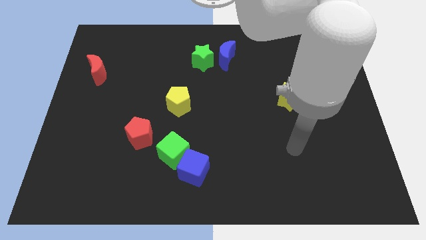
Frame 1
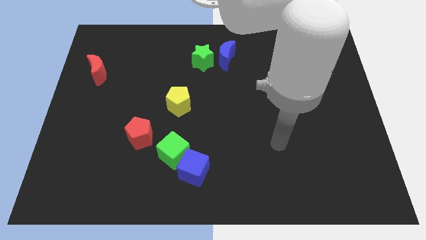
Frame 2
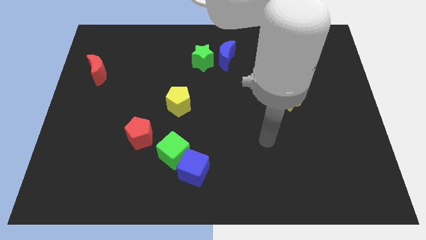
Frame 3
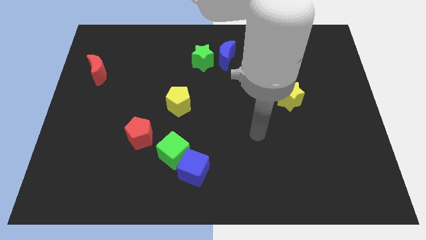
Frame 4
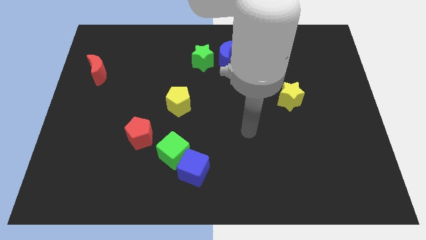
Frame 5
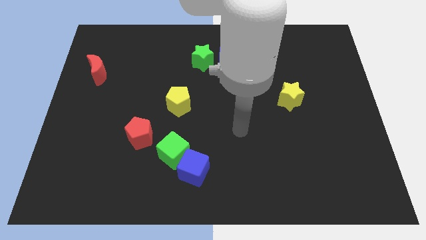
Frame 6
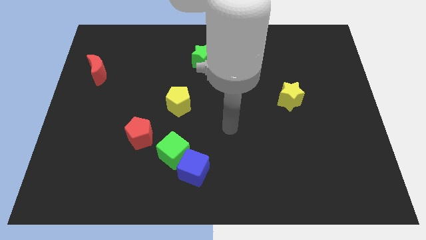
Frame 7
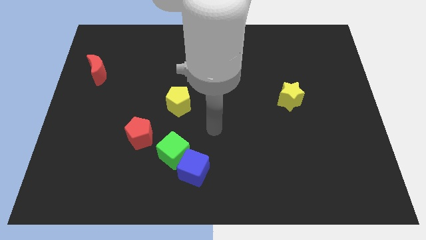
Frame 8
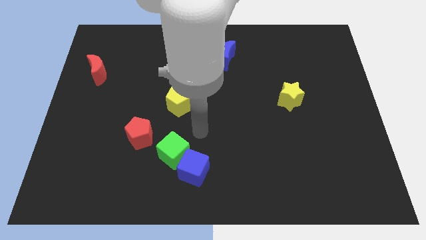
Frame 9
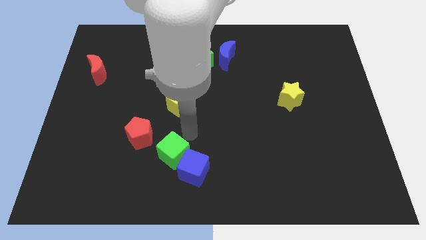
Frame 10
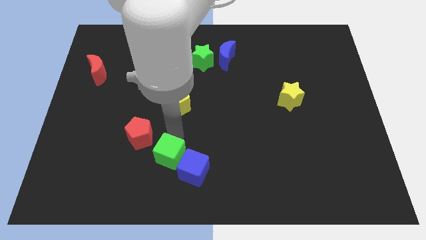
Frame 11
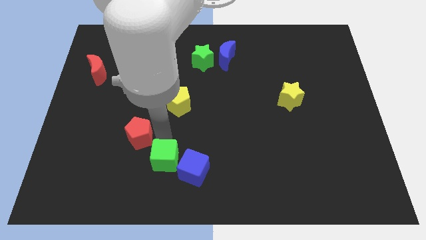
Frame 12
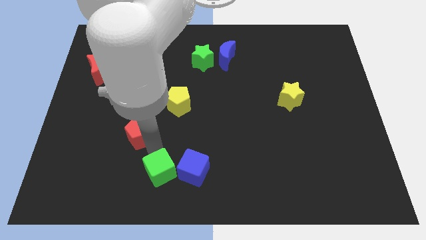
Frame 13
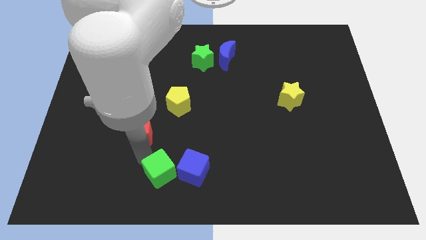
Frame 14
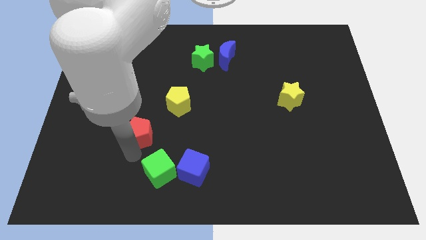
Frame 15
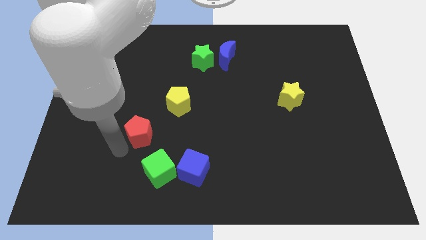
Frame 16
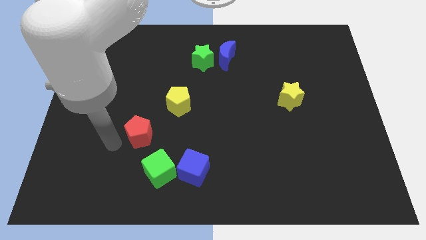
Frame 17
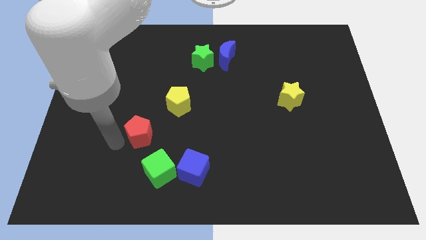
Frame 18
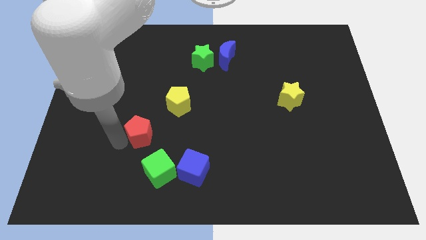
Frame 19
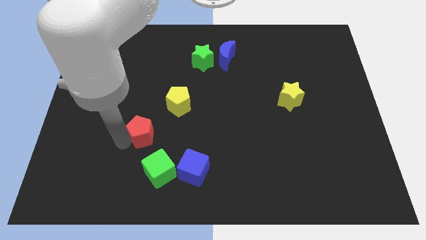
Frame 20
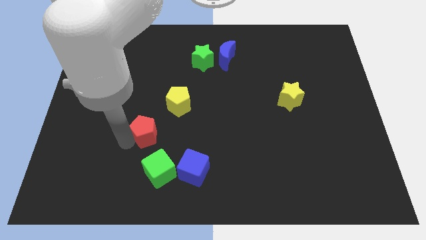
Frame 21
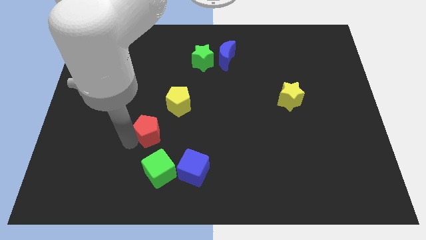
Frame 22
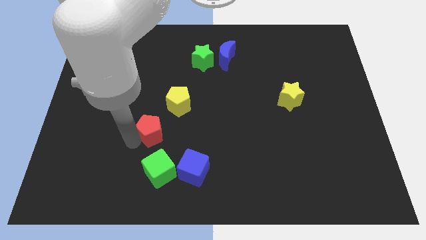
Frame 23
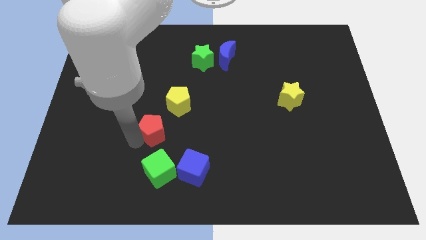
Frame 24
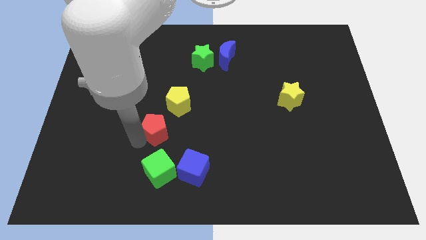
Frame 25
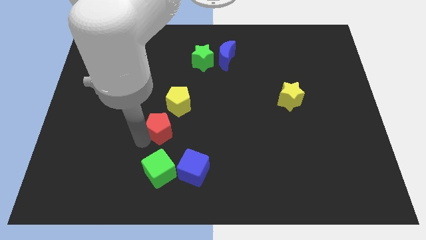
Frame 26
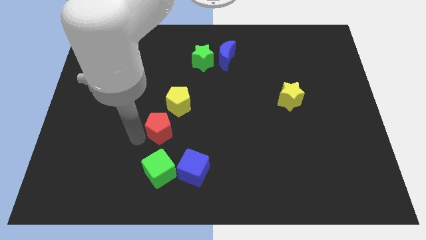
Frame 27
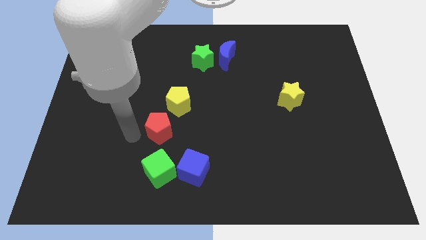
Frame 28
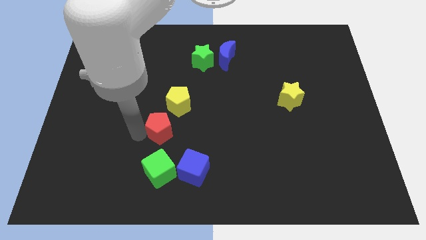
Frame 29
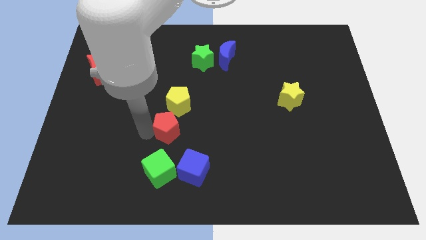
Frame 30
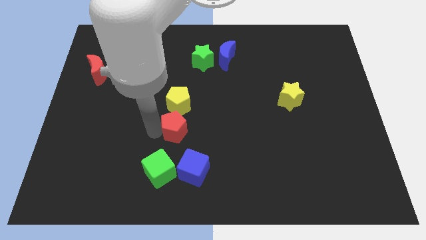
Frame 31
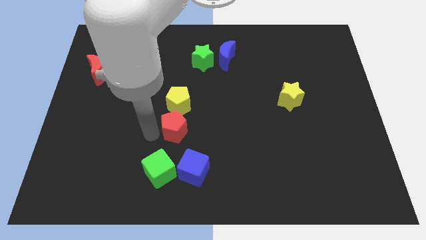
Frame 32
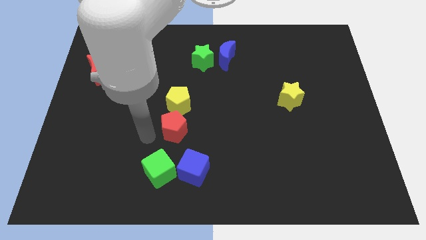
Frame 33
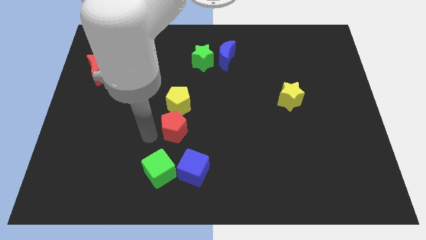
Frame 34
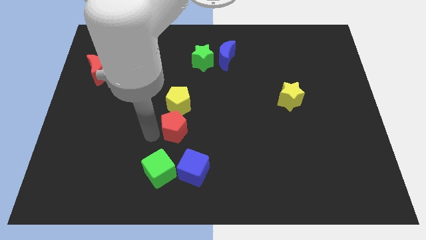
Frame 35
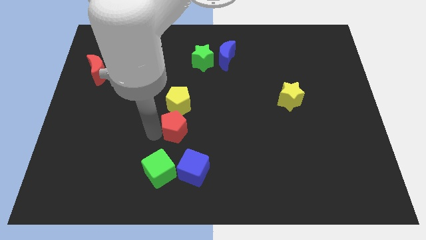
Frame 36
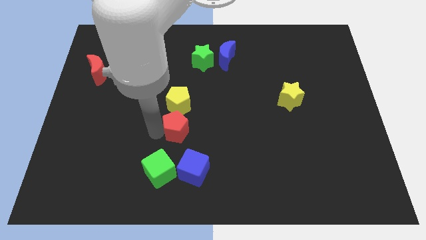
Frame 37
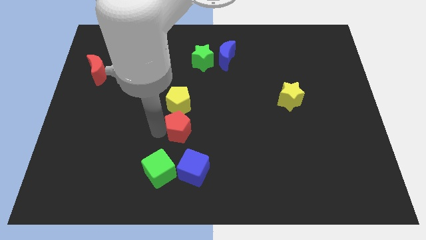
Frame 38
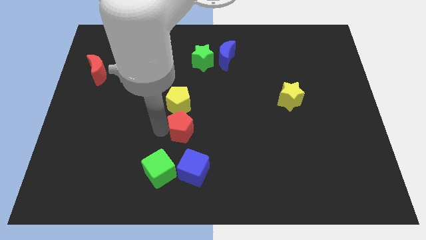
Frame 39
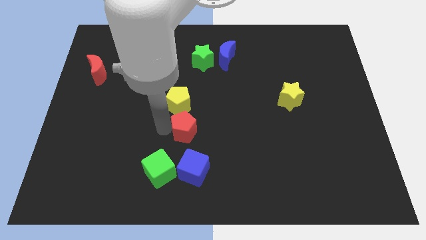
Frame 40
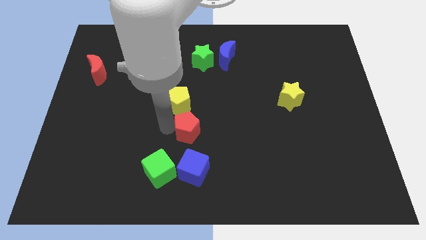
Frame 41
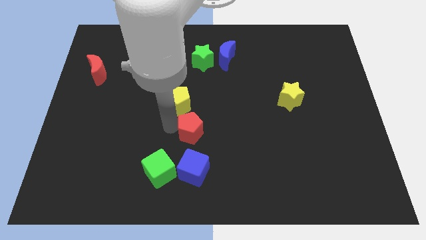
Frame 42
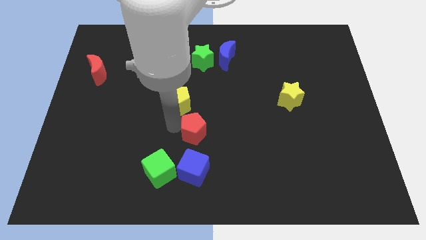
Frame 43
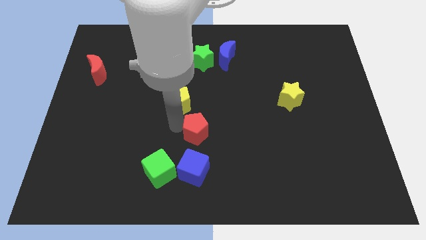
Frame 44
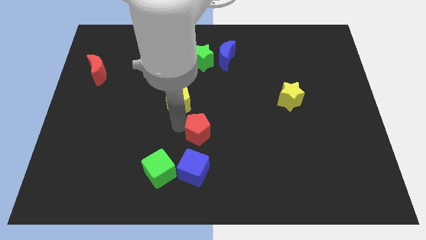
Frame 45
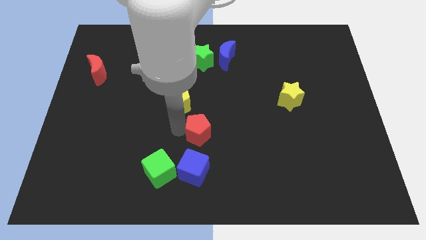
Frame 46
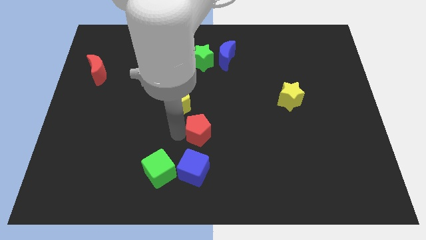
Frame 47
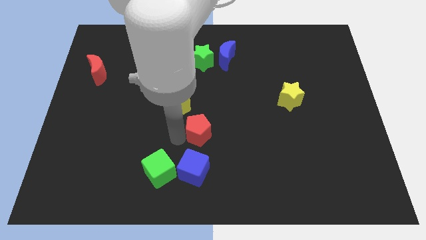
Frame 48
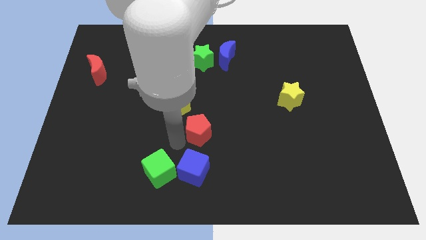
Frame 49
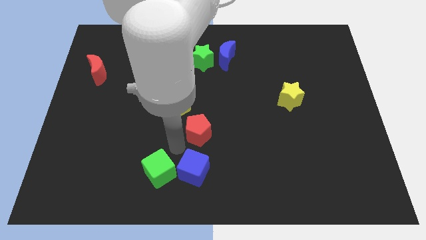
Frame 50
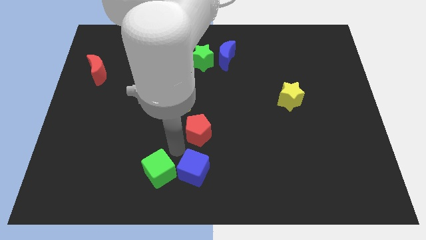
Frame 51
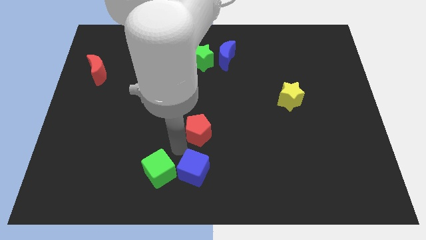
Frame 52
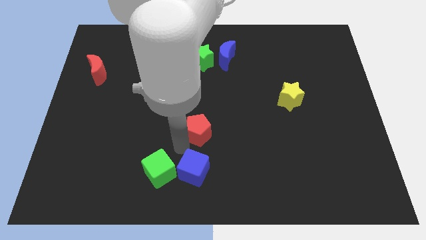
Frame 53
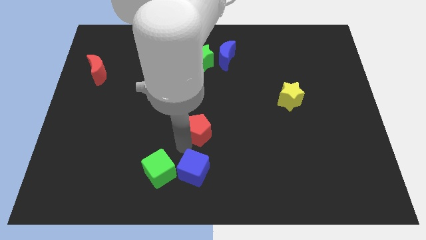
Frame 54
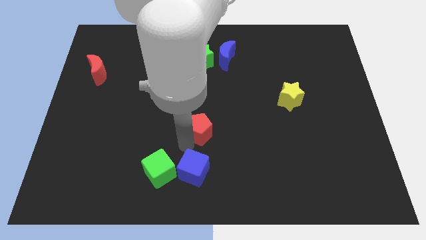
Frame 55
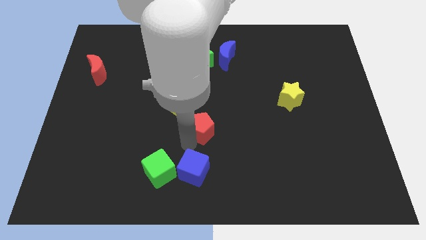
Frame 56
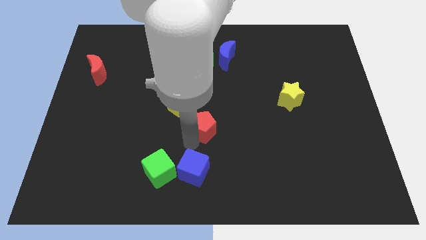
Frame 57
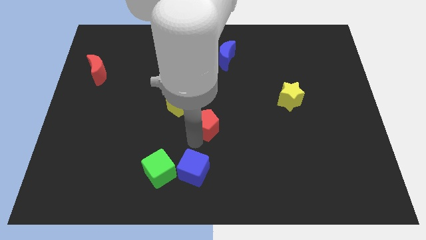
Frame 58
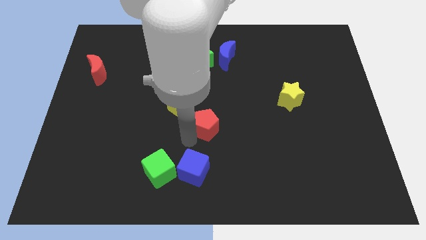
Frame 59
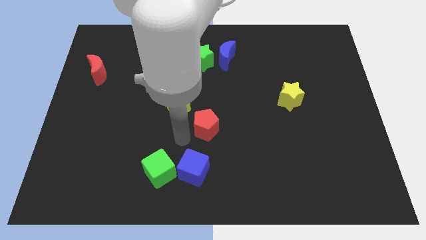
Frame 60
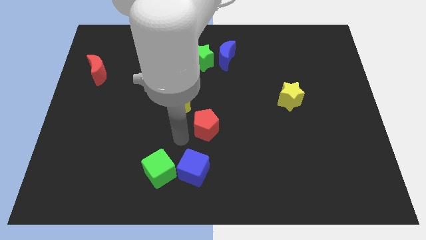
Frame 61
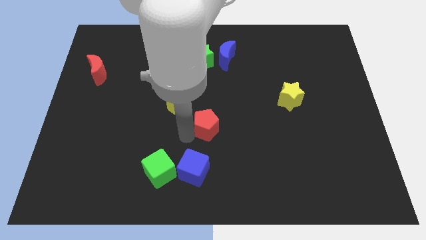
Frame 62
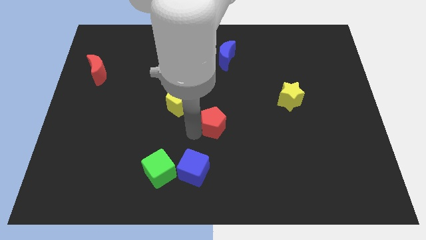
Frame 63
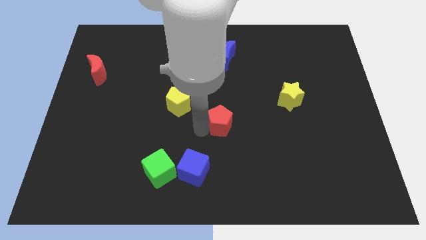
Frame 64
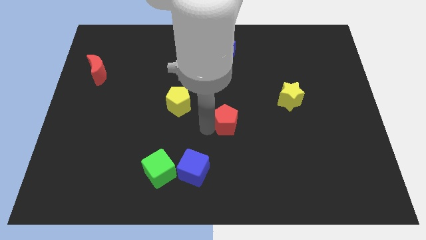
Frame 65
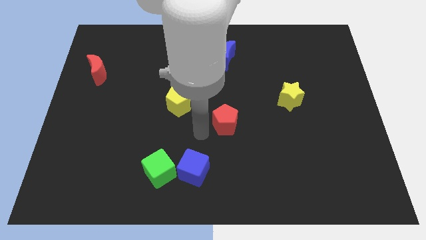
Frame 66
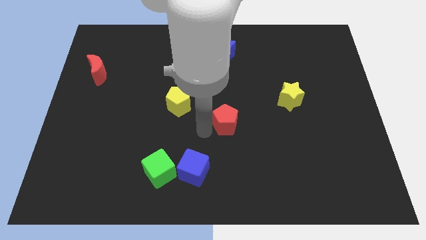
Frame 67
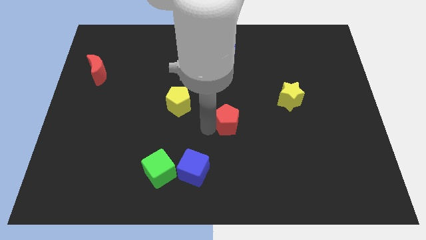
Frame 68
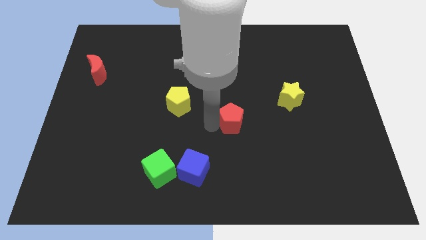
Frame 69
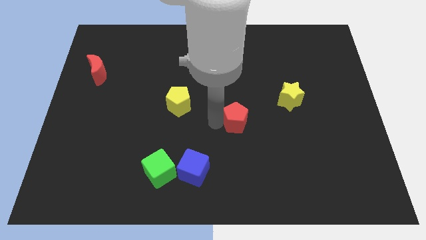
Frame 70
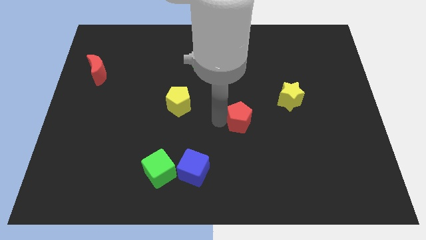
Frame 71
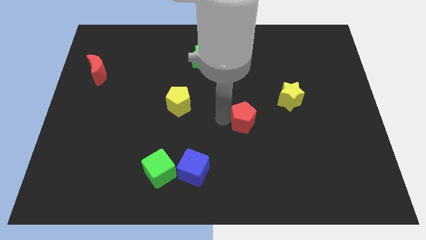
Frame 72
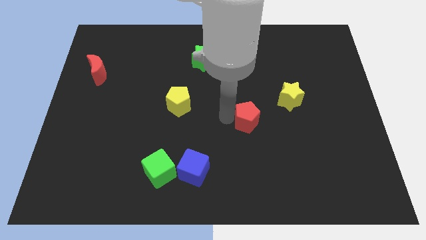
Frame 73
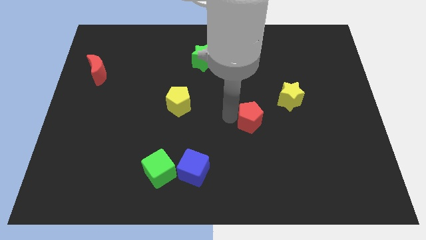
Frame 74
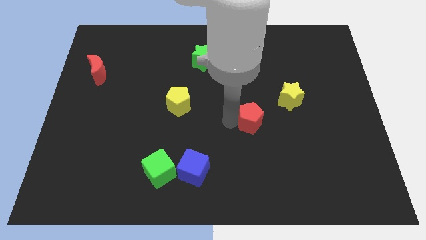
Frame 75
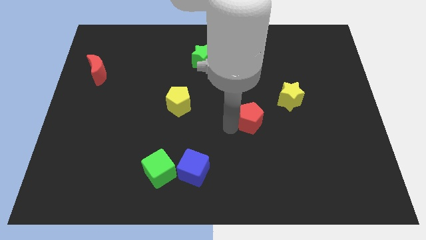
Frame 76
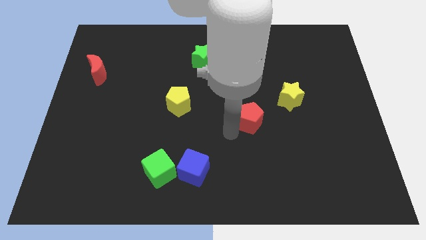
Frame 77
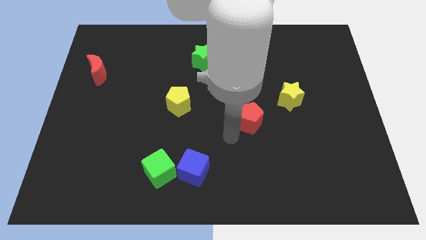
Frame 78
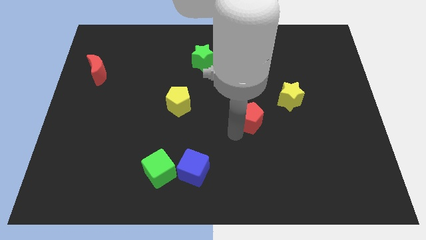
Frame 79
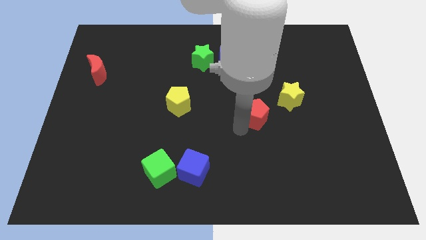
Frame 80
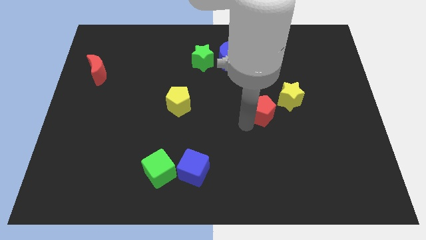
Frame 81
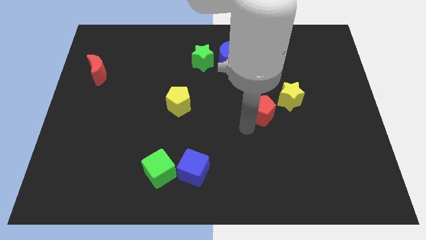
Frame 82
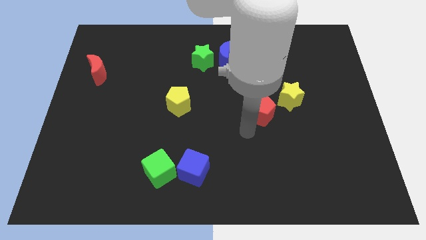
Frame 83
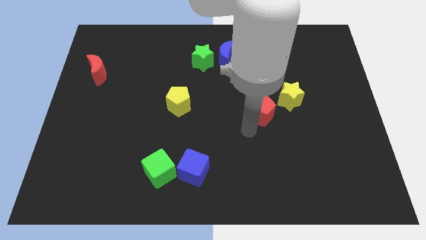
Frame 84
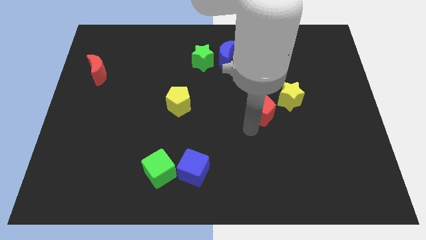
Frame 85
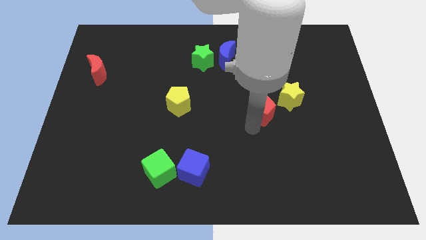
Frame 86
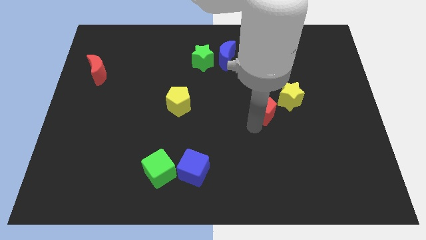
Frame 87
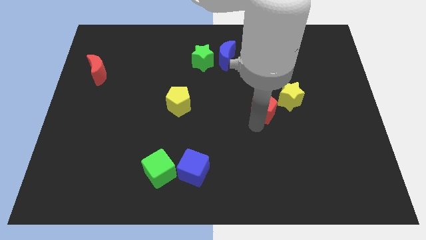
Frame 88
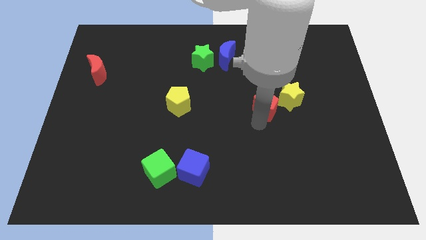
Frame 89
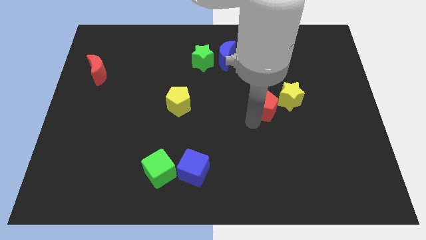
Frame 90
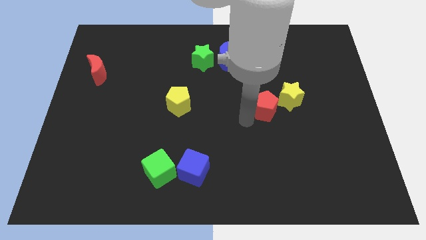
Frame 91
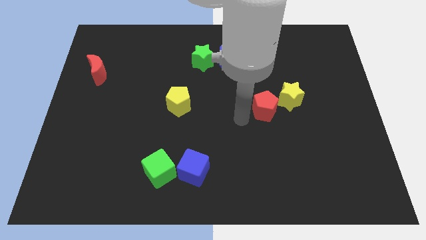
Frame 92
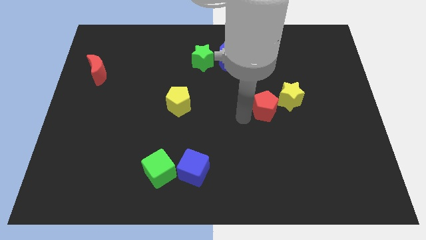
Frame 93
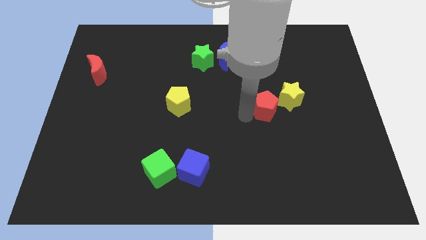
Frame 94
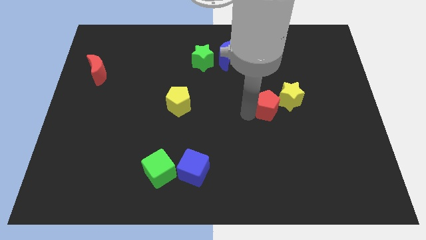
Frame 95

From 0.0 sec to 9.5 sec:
move the red pentagon close to the yellow star
